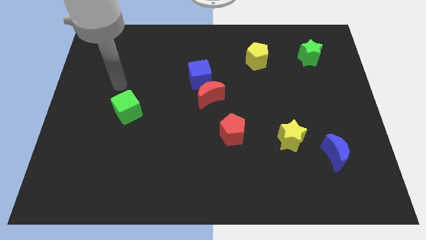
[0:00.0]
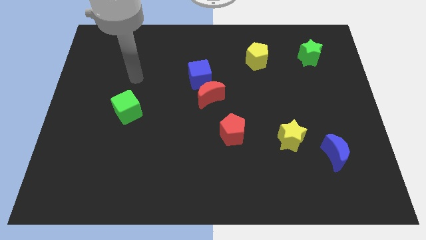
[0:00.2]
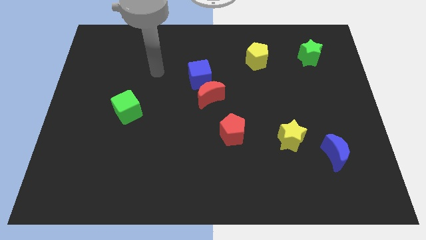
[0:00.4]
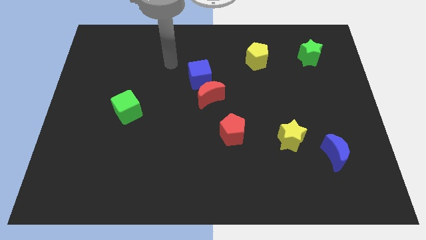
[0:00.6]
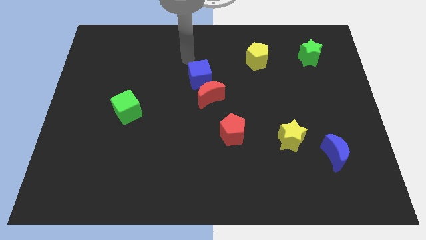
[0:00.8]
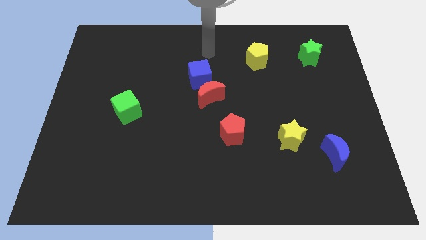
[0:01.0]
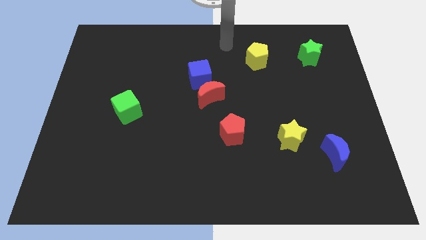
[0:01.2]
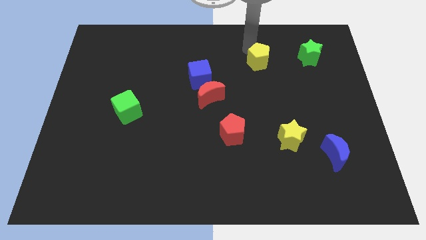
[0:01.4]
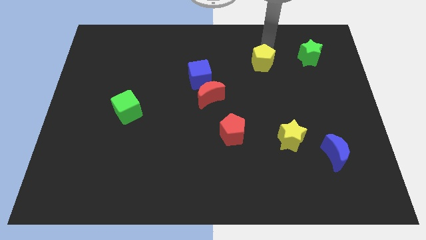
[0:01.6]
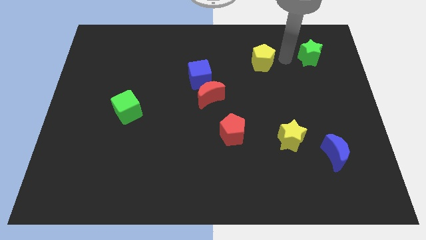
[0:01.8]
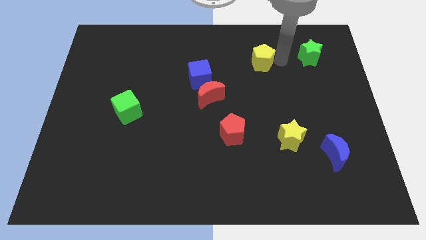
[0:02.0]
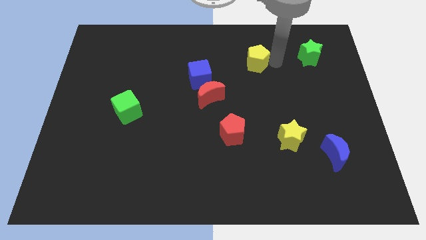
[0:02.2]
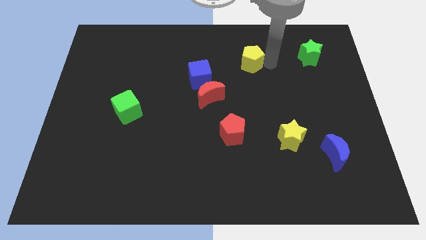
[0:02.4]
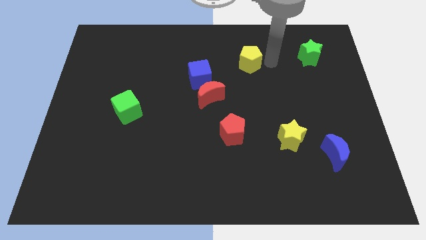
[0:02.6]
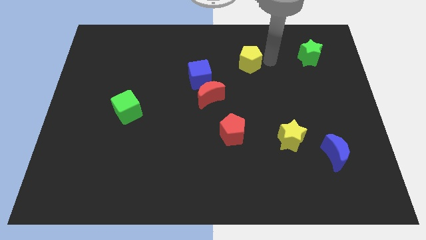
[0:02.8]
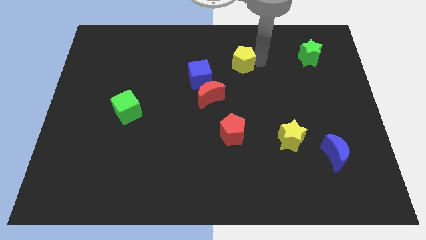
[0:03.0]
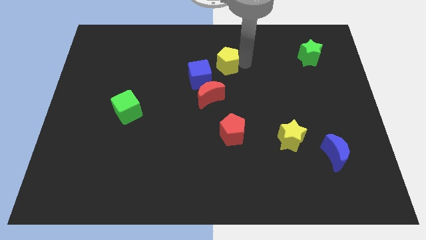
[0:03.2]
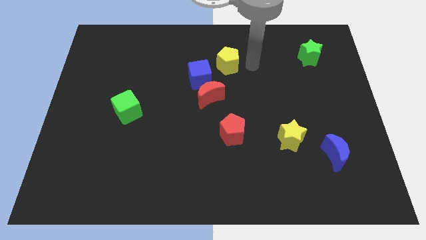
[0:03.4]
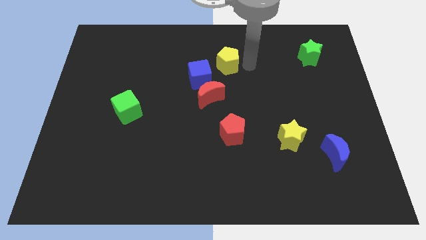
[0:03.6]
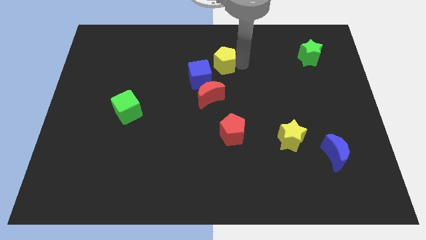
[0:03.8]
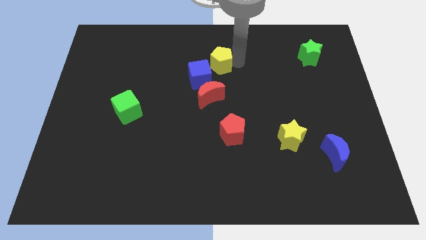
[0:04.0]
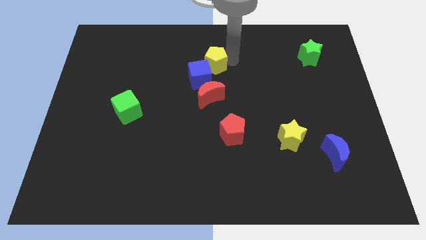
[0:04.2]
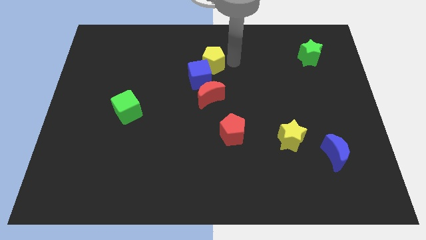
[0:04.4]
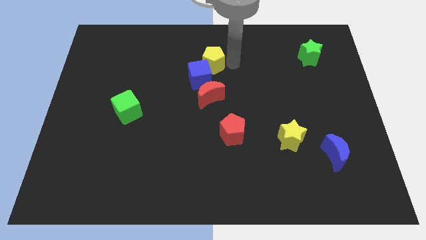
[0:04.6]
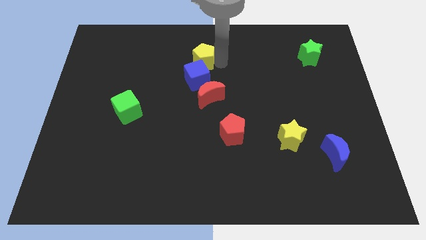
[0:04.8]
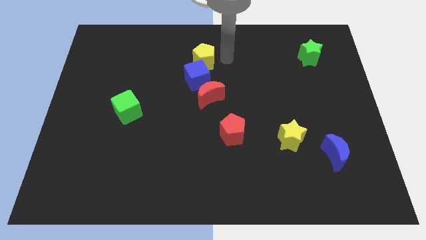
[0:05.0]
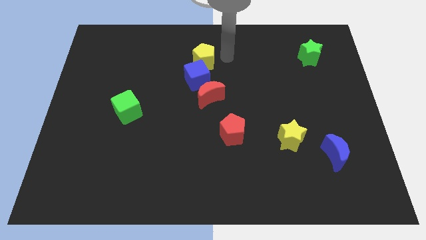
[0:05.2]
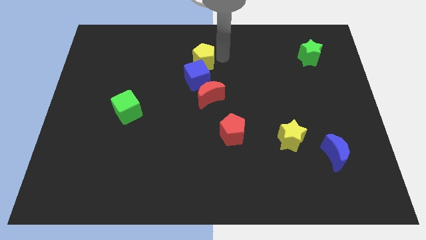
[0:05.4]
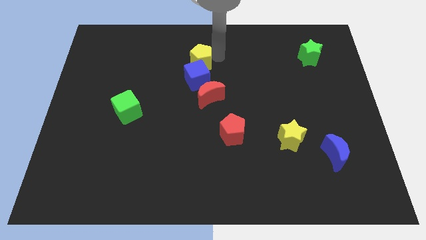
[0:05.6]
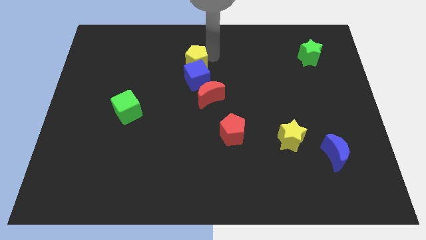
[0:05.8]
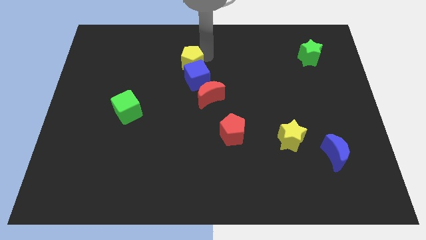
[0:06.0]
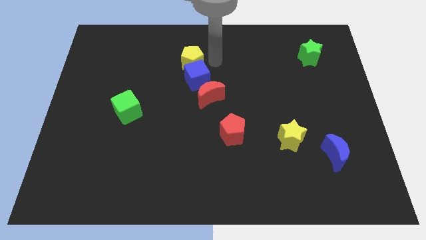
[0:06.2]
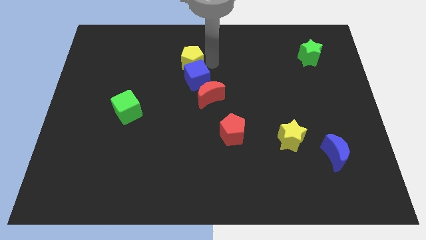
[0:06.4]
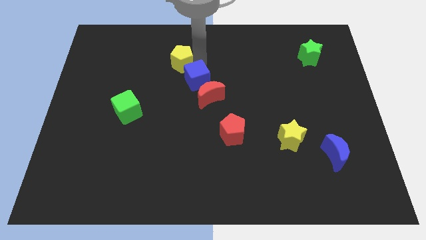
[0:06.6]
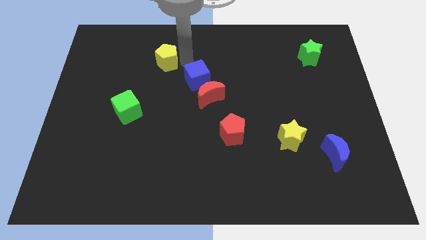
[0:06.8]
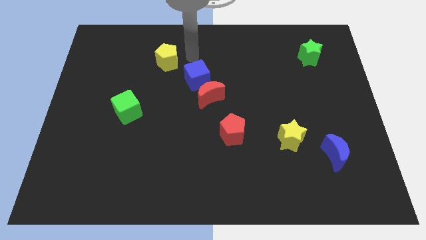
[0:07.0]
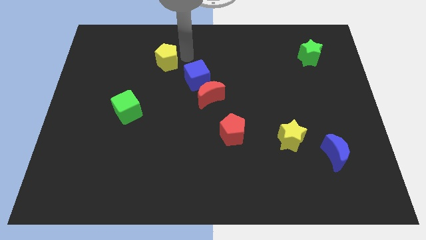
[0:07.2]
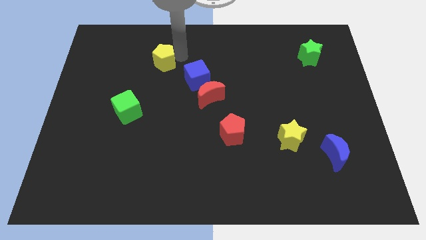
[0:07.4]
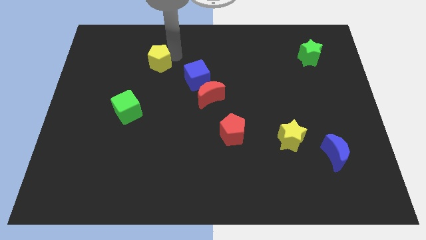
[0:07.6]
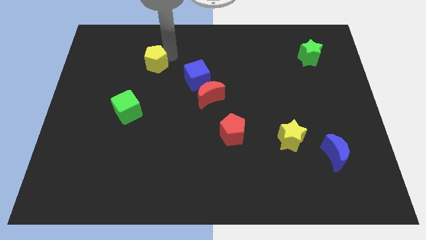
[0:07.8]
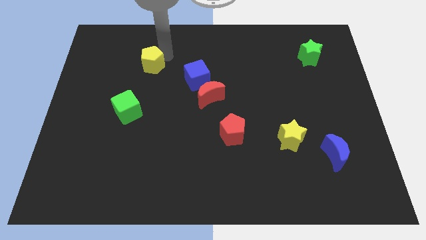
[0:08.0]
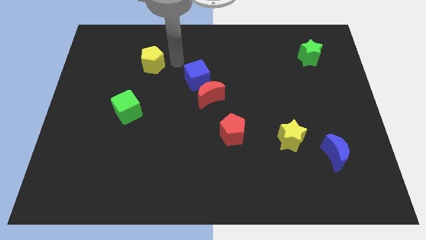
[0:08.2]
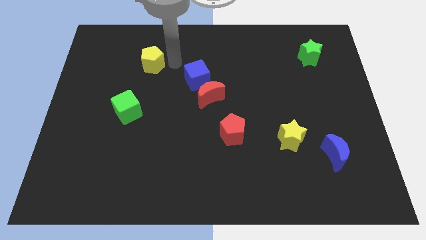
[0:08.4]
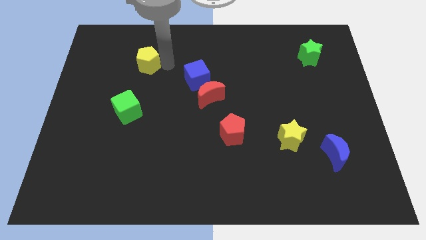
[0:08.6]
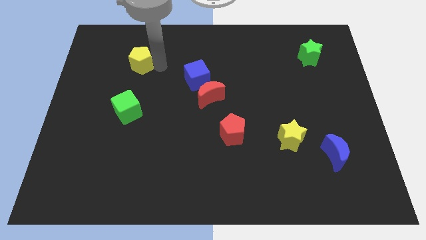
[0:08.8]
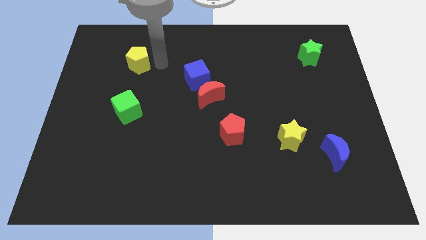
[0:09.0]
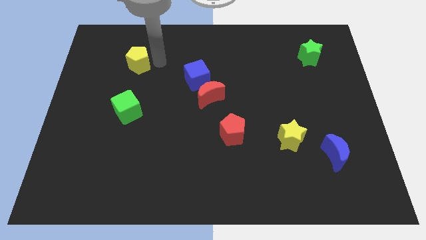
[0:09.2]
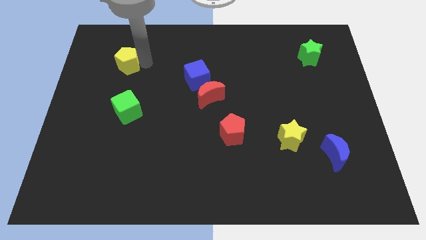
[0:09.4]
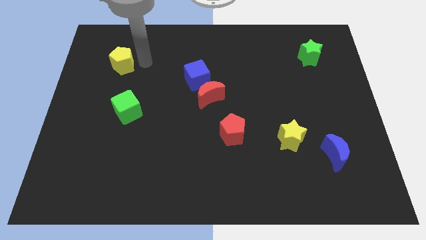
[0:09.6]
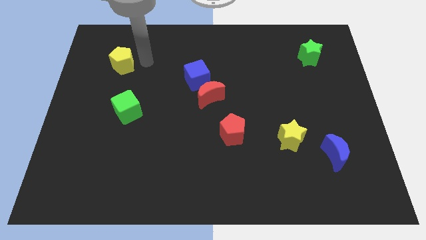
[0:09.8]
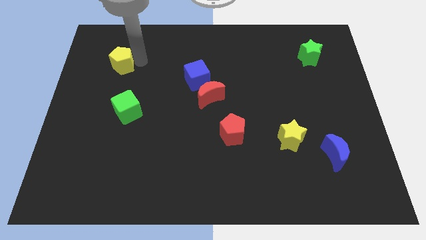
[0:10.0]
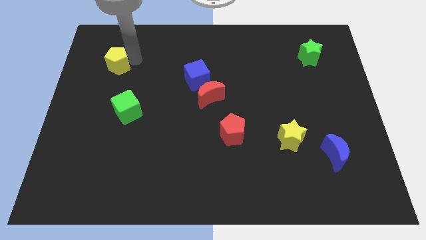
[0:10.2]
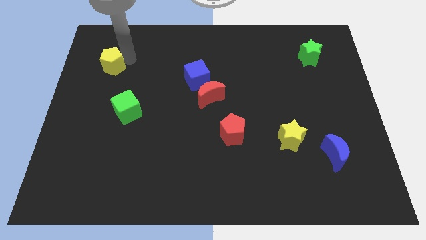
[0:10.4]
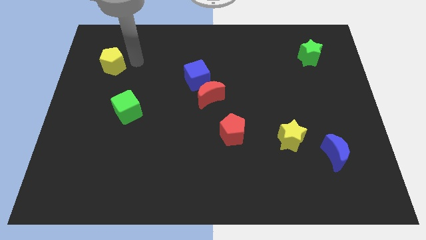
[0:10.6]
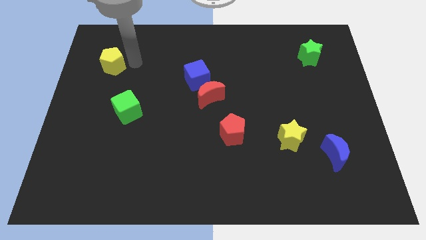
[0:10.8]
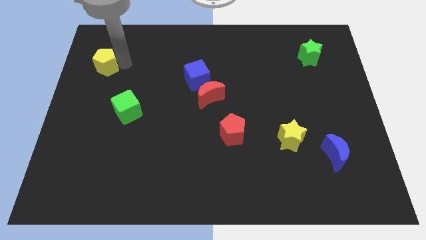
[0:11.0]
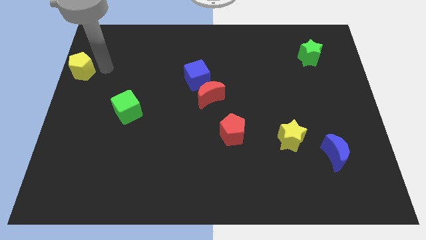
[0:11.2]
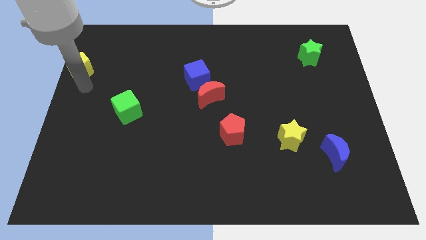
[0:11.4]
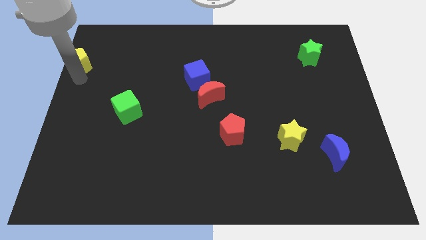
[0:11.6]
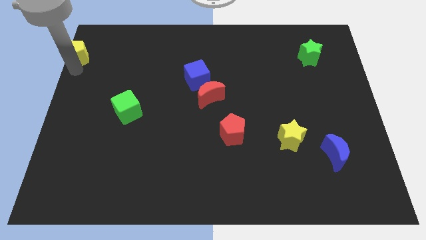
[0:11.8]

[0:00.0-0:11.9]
push the yellow pentagon to the upper left corner

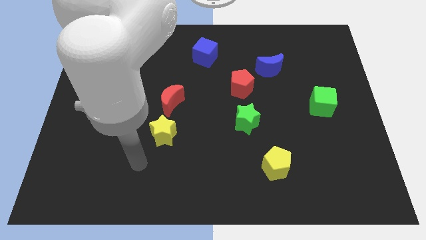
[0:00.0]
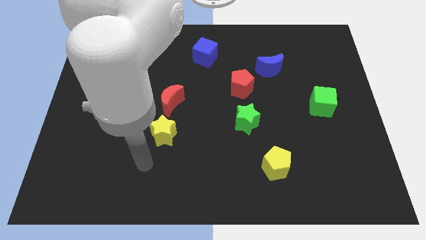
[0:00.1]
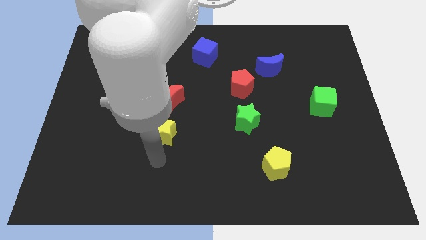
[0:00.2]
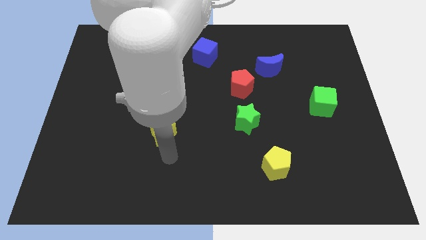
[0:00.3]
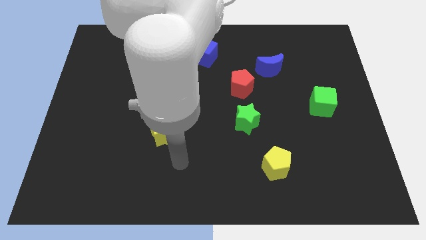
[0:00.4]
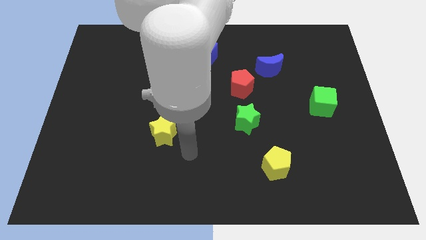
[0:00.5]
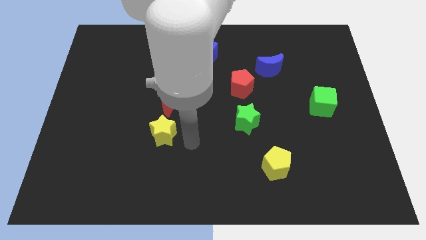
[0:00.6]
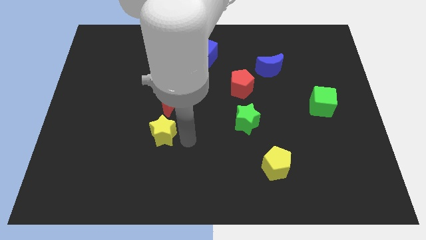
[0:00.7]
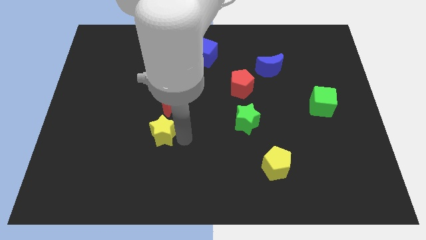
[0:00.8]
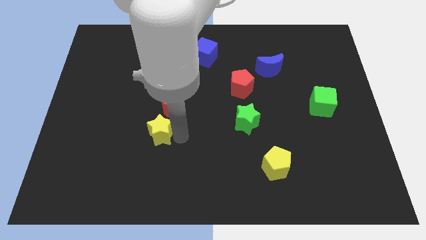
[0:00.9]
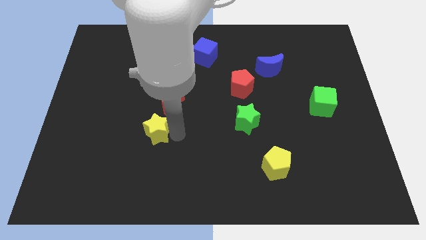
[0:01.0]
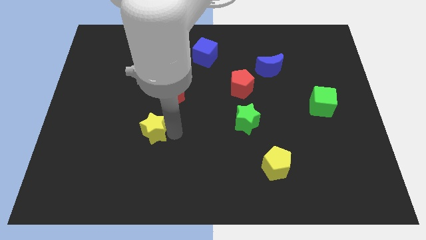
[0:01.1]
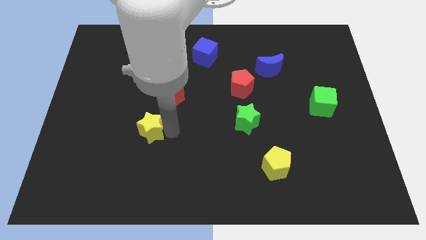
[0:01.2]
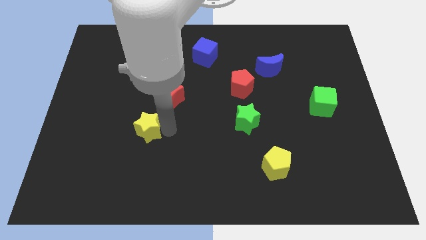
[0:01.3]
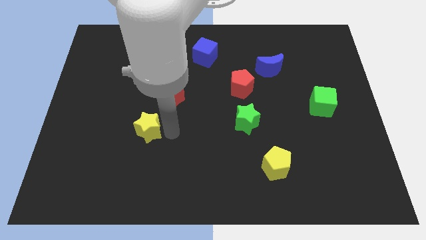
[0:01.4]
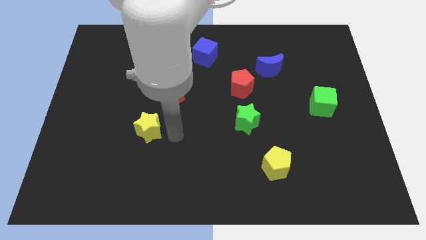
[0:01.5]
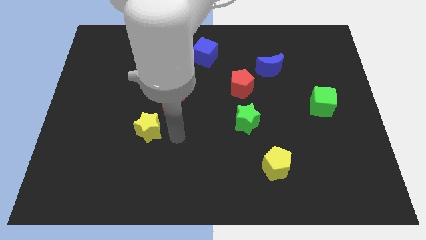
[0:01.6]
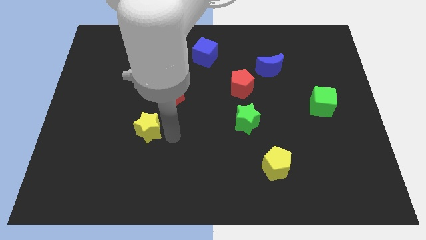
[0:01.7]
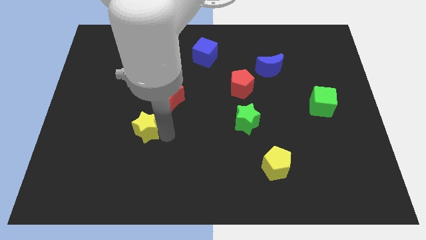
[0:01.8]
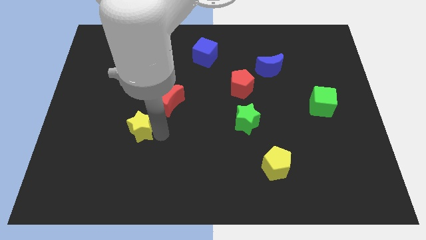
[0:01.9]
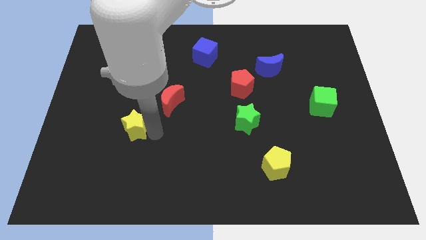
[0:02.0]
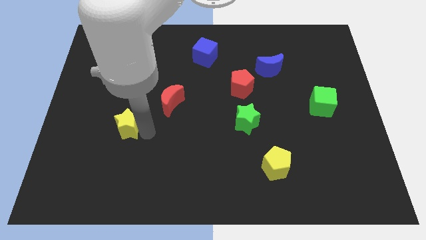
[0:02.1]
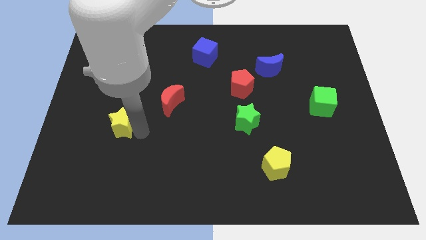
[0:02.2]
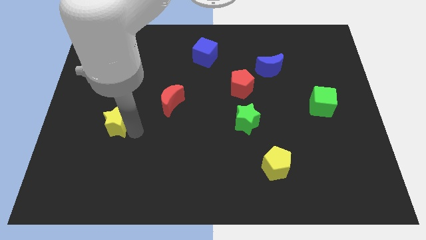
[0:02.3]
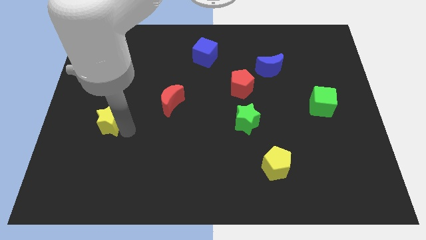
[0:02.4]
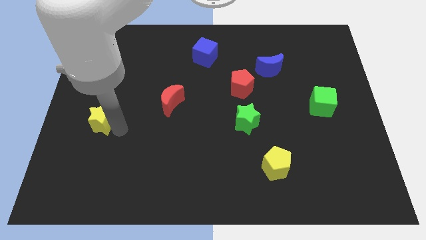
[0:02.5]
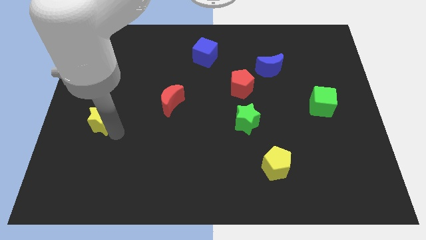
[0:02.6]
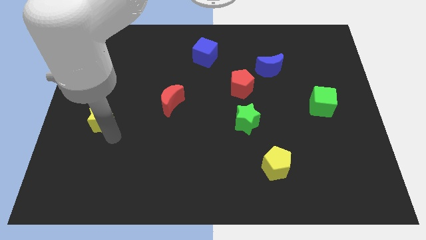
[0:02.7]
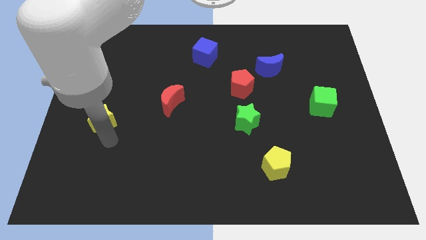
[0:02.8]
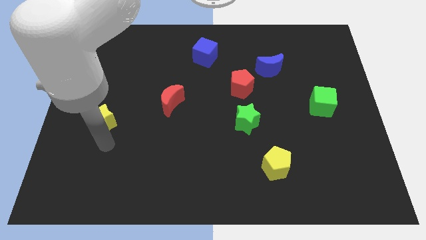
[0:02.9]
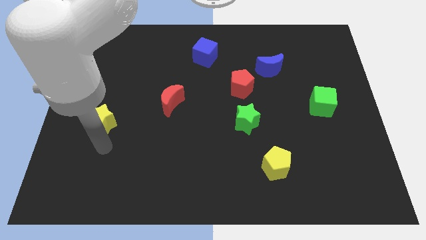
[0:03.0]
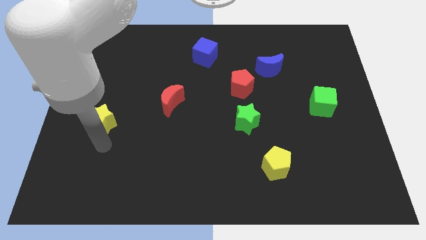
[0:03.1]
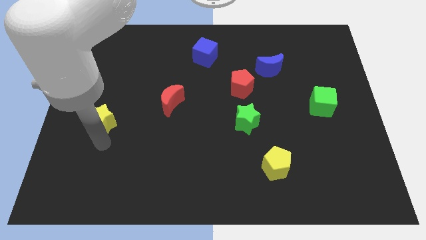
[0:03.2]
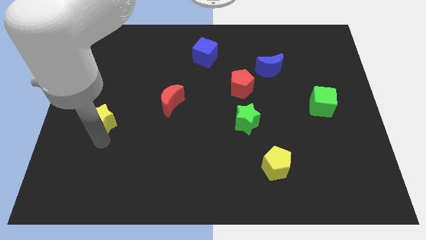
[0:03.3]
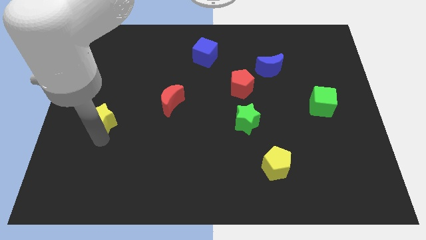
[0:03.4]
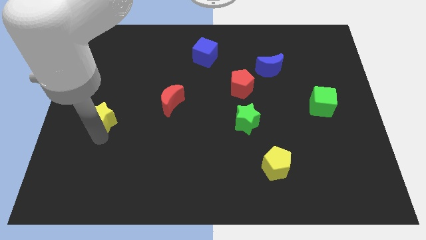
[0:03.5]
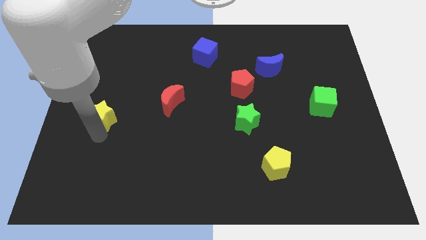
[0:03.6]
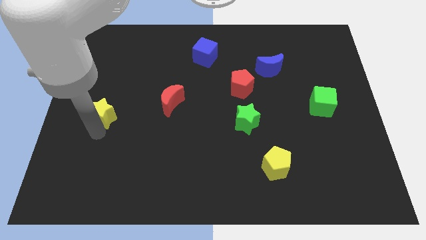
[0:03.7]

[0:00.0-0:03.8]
push the yellow star to the center left
